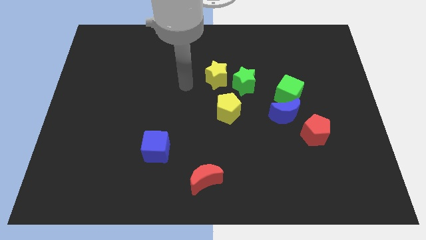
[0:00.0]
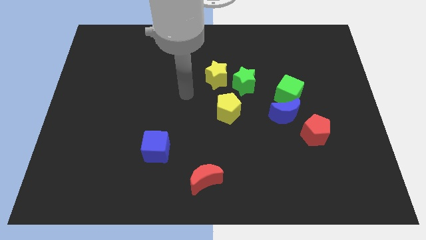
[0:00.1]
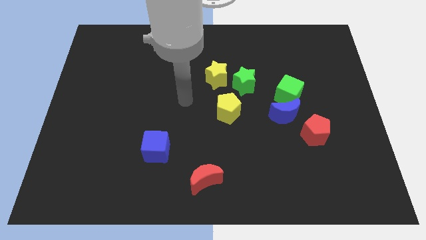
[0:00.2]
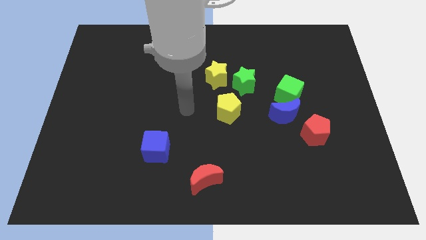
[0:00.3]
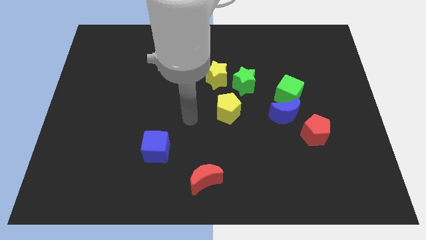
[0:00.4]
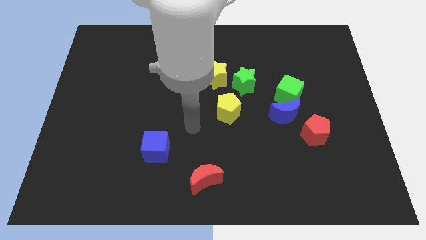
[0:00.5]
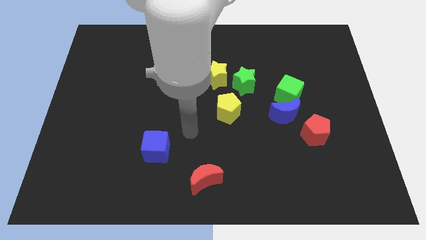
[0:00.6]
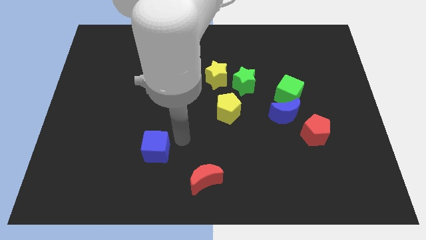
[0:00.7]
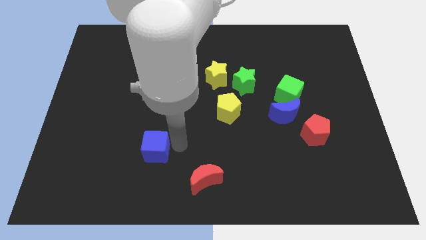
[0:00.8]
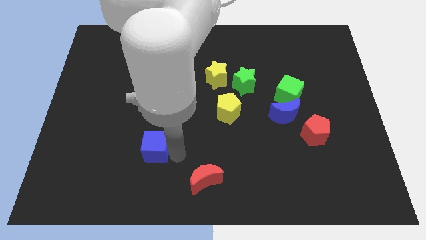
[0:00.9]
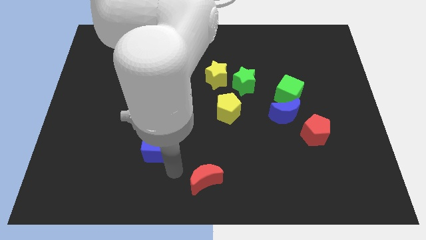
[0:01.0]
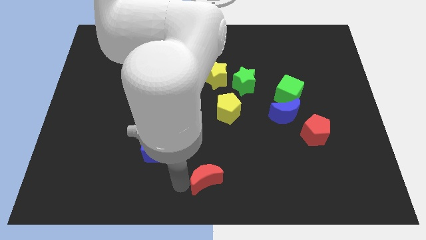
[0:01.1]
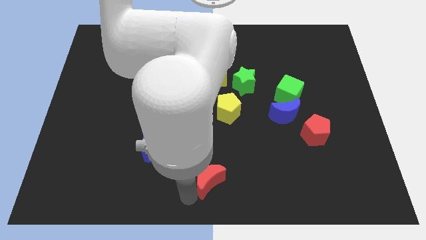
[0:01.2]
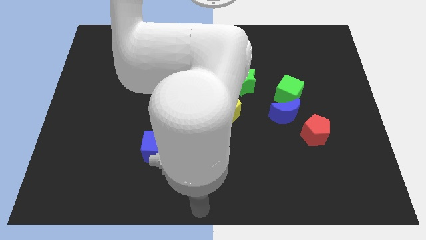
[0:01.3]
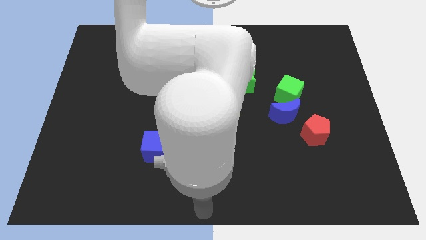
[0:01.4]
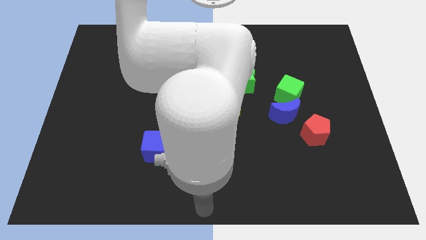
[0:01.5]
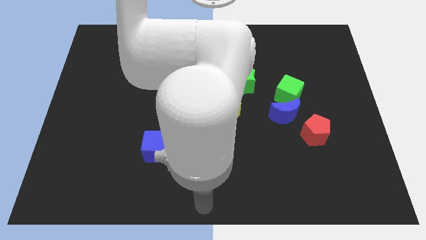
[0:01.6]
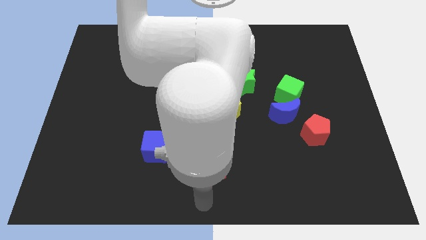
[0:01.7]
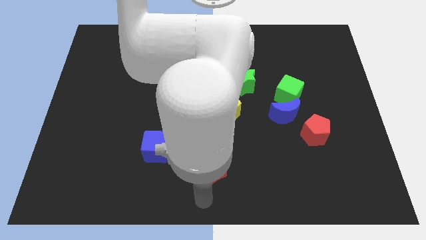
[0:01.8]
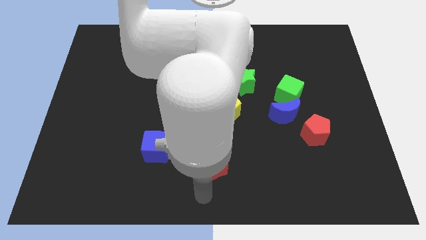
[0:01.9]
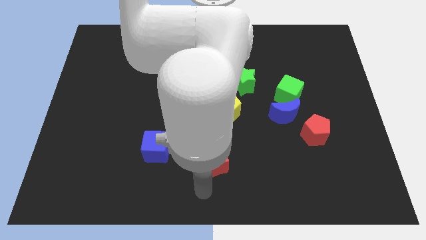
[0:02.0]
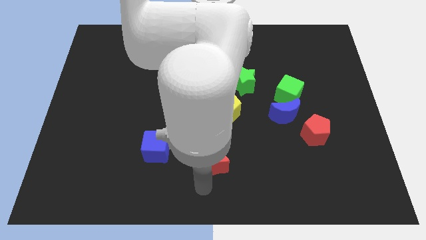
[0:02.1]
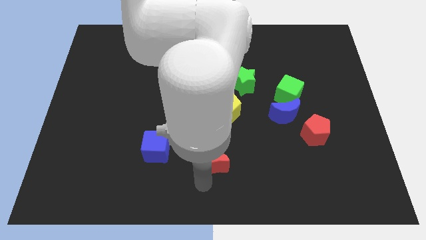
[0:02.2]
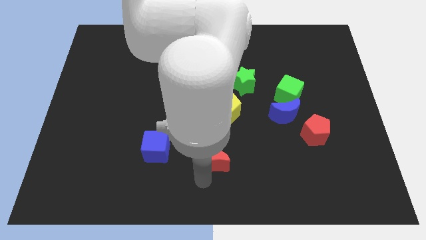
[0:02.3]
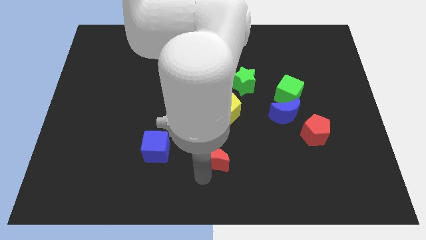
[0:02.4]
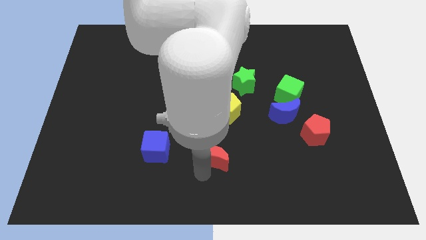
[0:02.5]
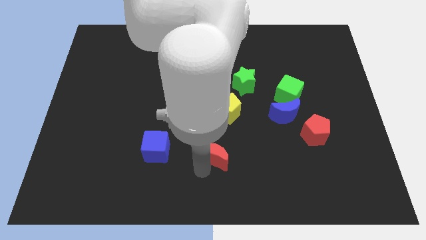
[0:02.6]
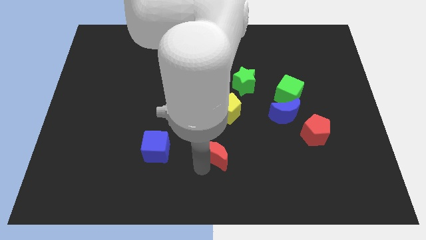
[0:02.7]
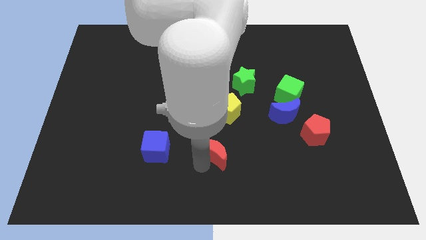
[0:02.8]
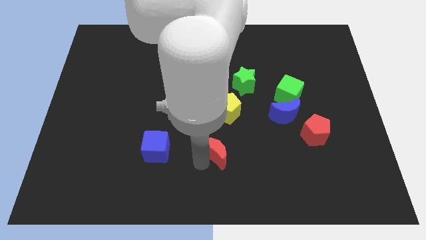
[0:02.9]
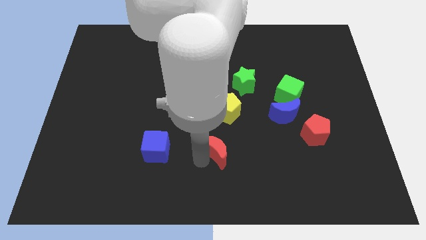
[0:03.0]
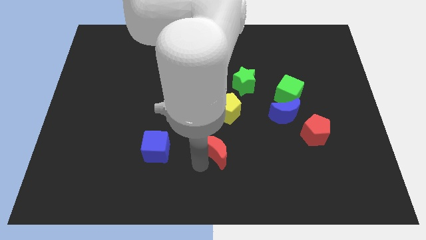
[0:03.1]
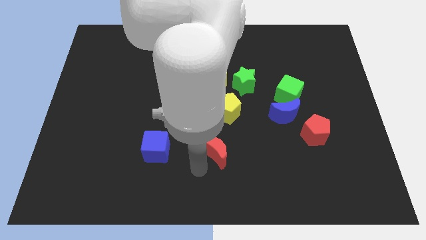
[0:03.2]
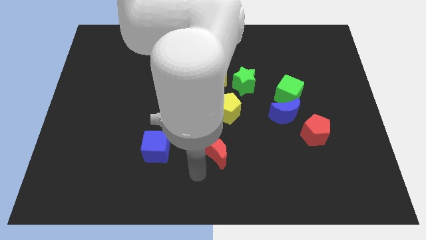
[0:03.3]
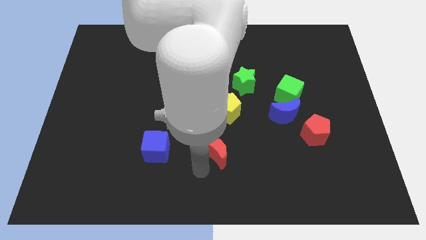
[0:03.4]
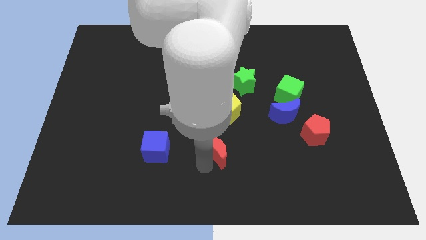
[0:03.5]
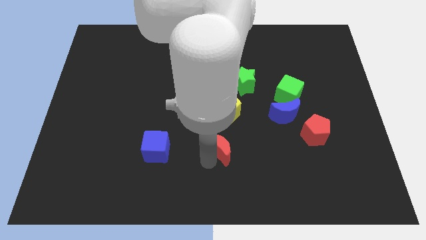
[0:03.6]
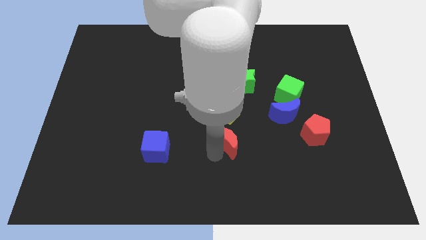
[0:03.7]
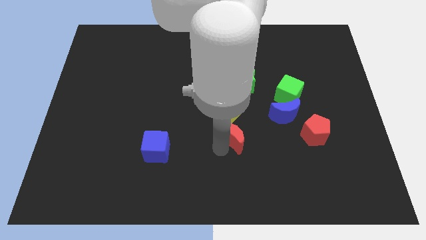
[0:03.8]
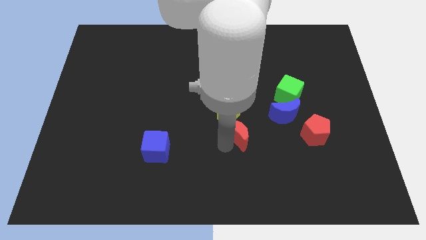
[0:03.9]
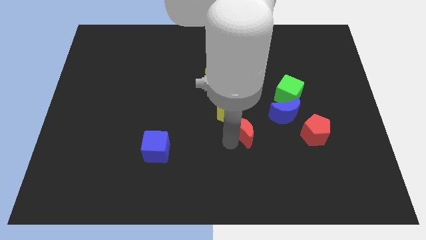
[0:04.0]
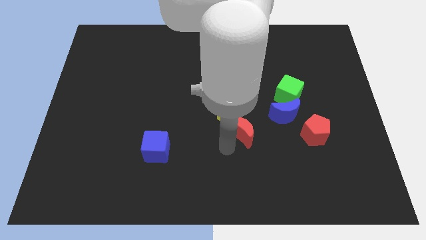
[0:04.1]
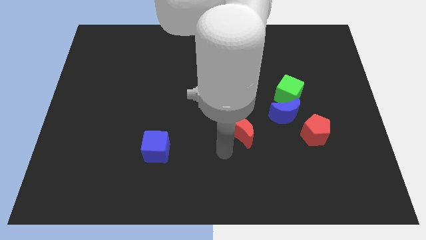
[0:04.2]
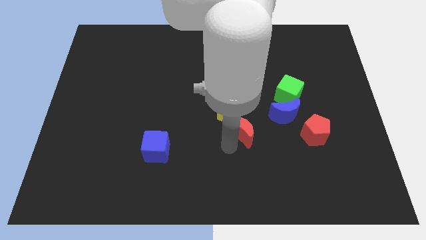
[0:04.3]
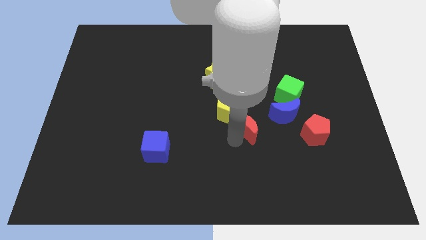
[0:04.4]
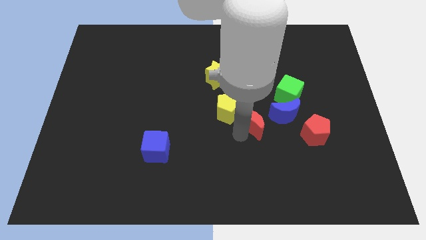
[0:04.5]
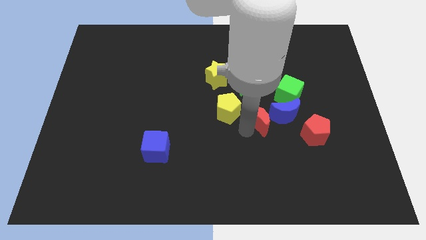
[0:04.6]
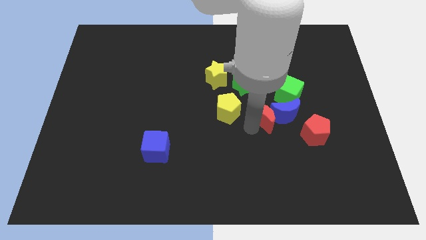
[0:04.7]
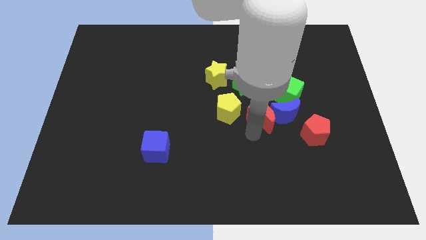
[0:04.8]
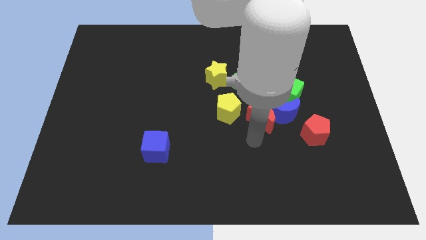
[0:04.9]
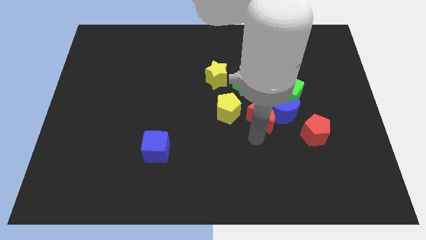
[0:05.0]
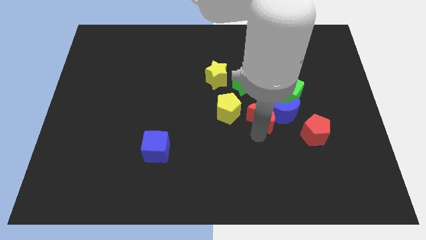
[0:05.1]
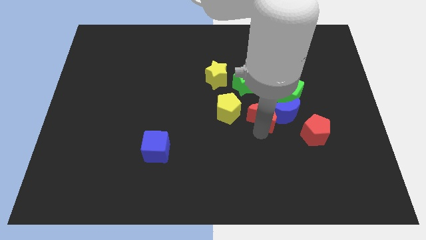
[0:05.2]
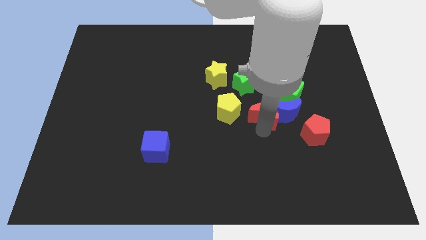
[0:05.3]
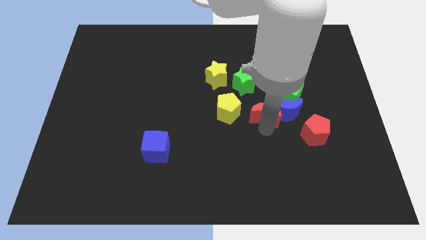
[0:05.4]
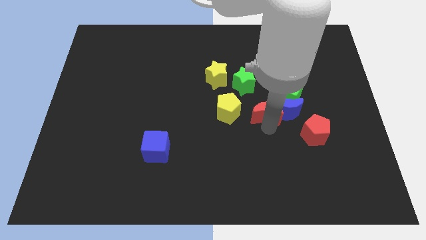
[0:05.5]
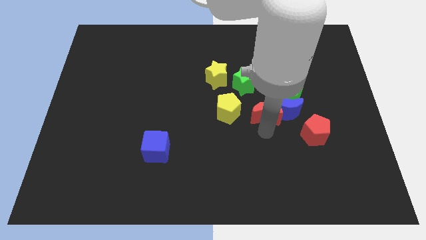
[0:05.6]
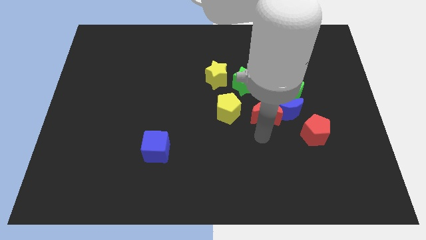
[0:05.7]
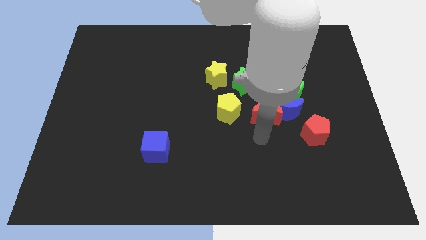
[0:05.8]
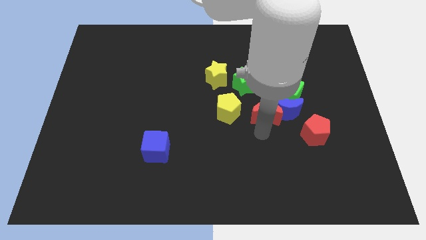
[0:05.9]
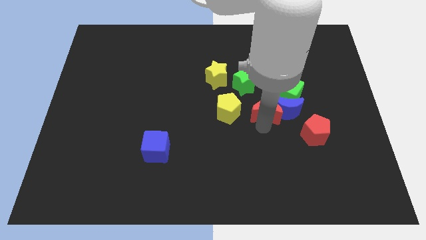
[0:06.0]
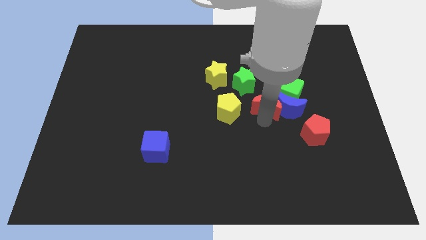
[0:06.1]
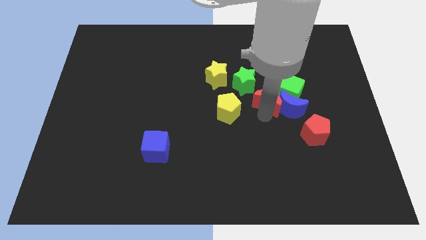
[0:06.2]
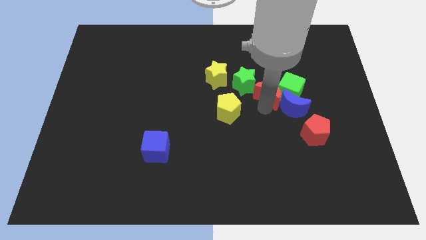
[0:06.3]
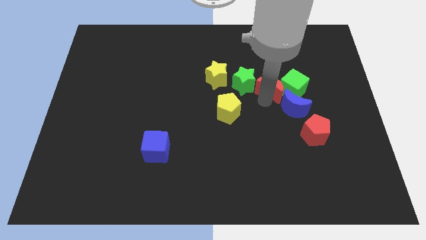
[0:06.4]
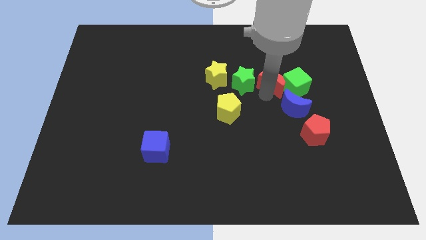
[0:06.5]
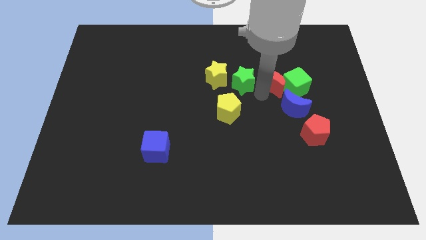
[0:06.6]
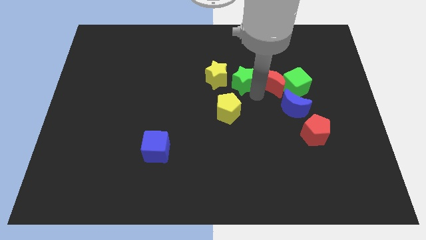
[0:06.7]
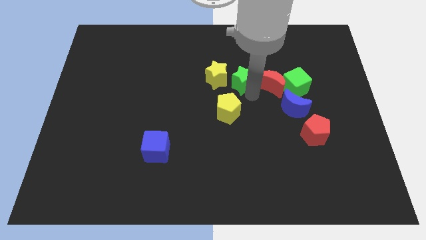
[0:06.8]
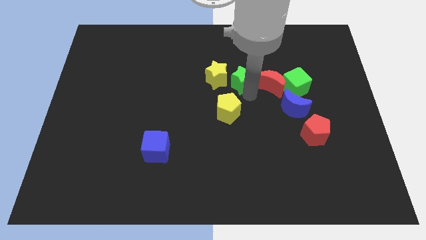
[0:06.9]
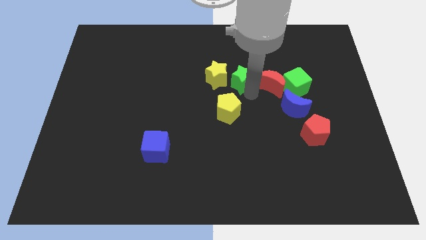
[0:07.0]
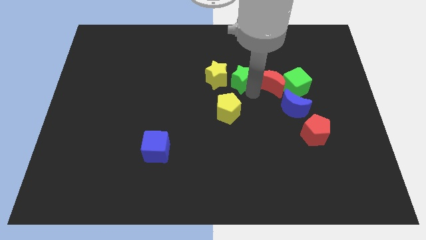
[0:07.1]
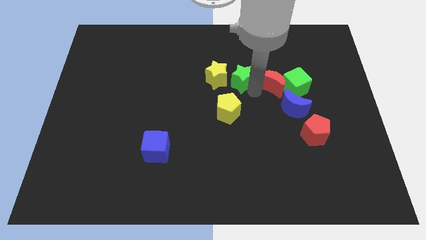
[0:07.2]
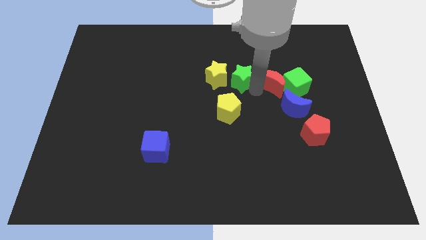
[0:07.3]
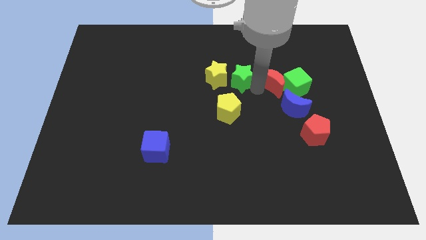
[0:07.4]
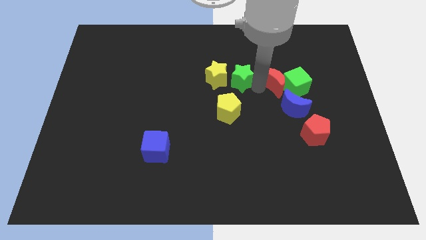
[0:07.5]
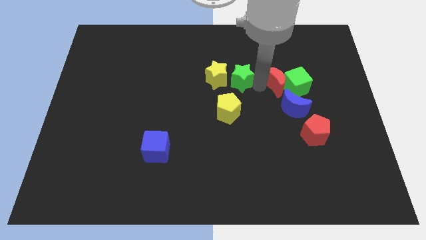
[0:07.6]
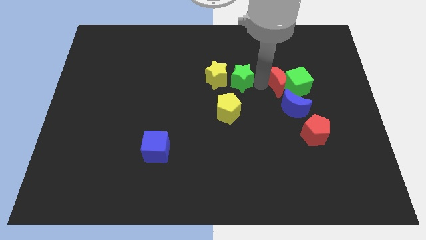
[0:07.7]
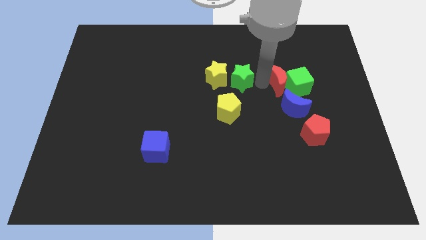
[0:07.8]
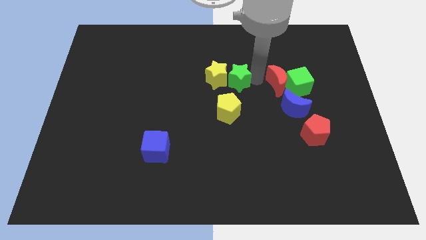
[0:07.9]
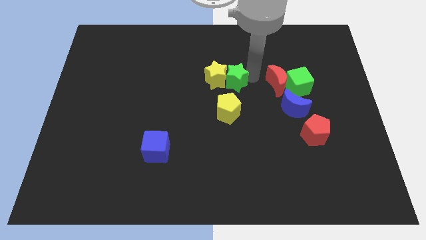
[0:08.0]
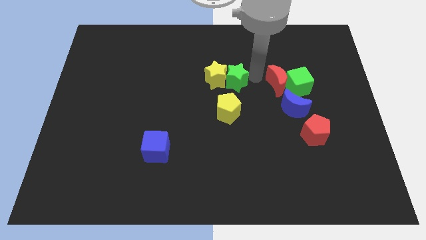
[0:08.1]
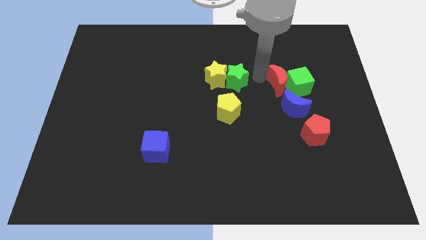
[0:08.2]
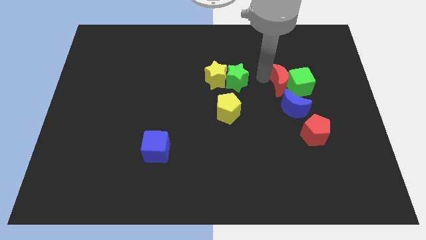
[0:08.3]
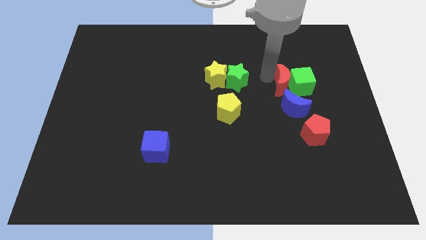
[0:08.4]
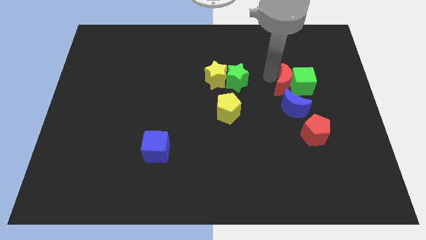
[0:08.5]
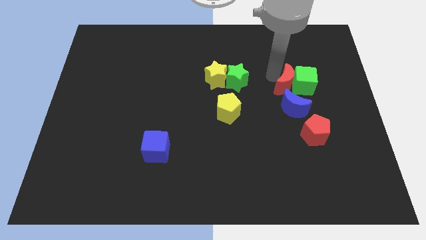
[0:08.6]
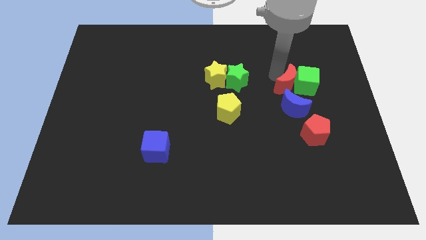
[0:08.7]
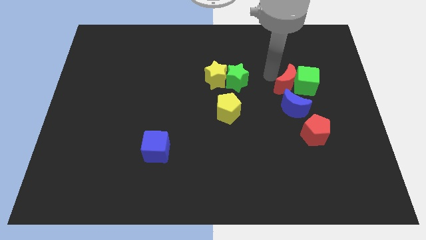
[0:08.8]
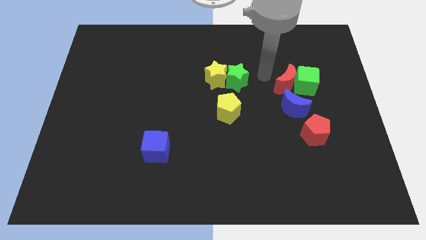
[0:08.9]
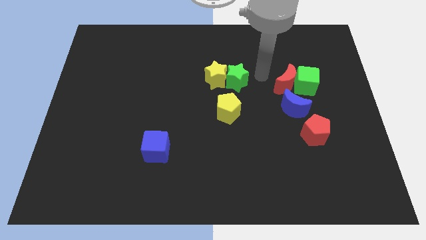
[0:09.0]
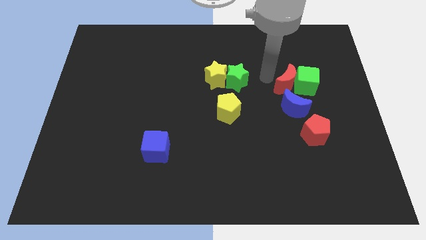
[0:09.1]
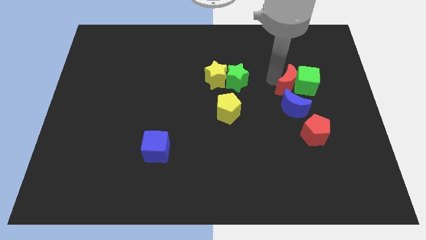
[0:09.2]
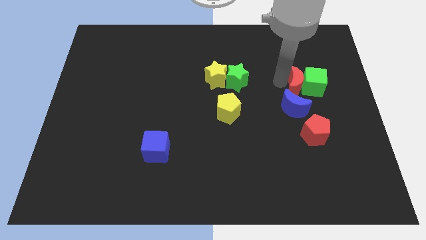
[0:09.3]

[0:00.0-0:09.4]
push the red moon to the top right of the blue moon
